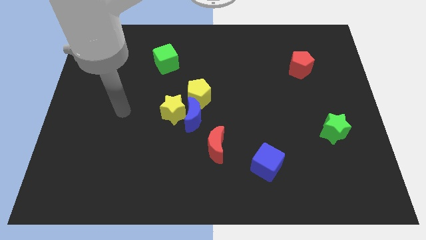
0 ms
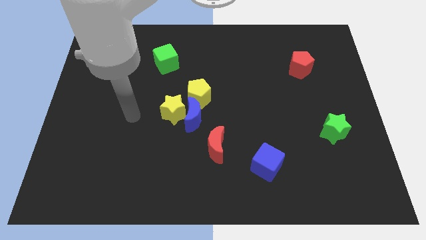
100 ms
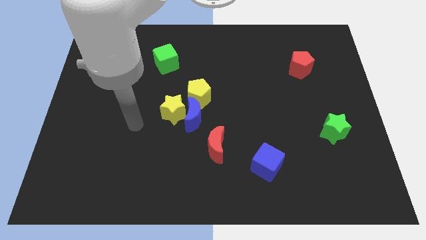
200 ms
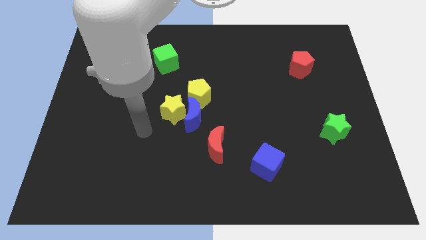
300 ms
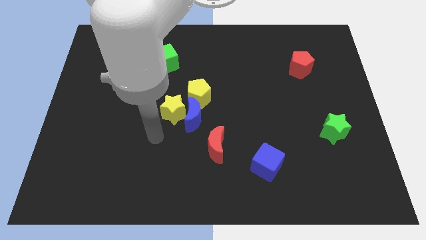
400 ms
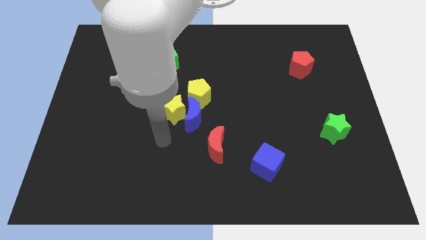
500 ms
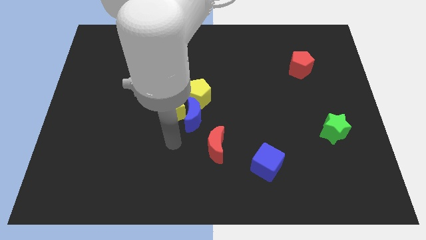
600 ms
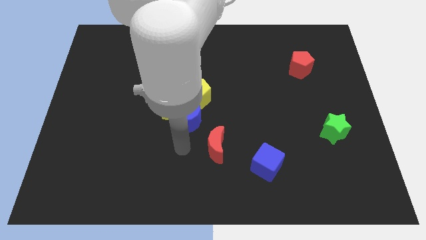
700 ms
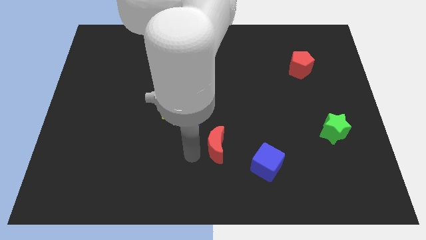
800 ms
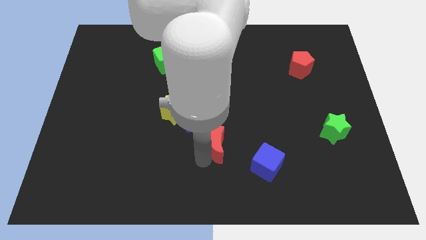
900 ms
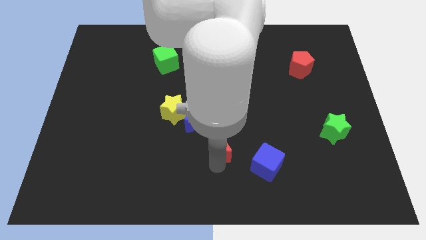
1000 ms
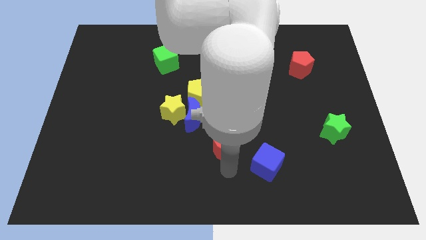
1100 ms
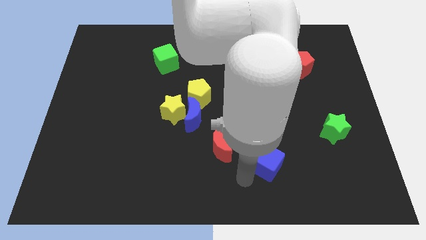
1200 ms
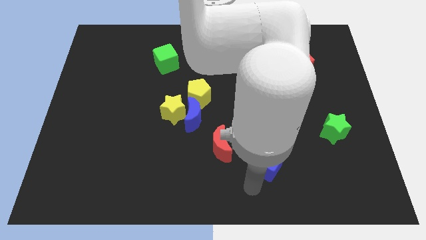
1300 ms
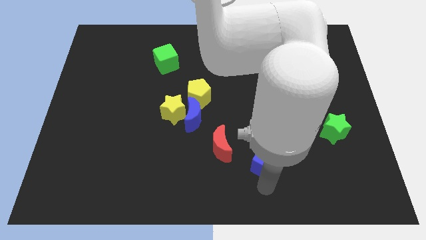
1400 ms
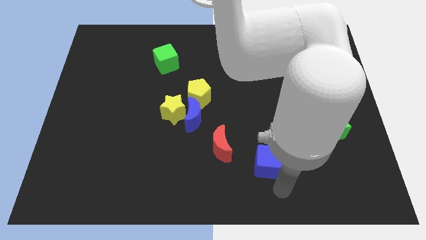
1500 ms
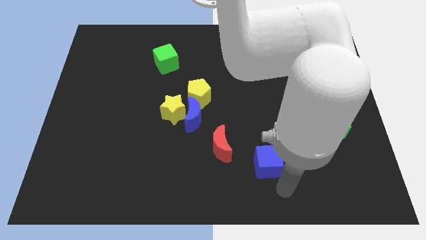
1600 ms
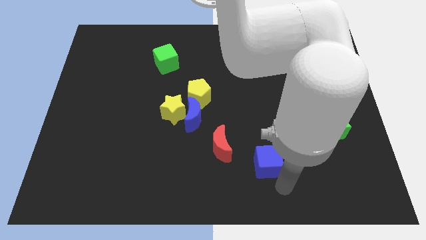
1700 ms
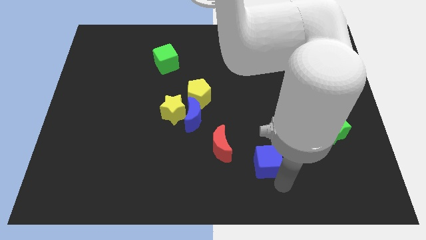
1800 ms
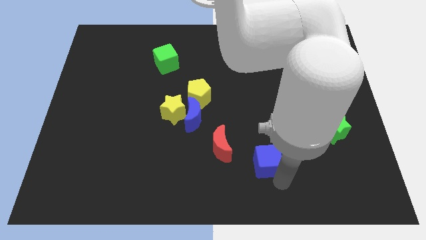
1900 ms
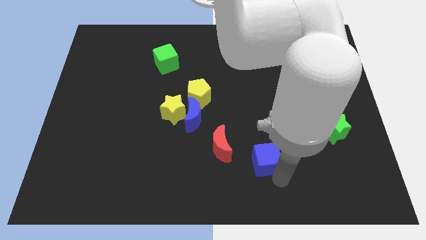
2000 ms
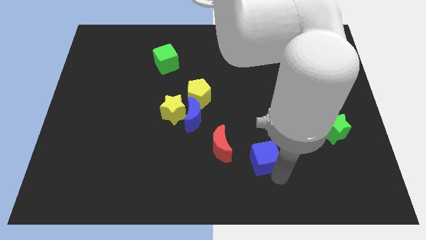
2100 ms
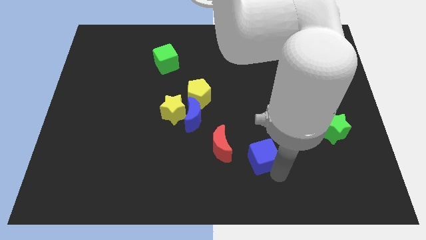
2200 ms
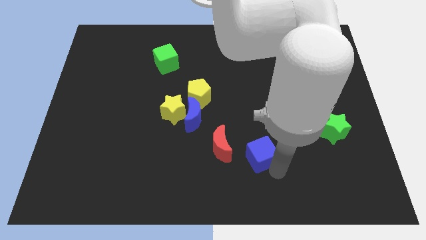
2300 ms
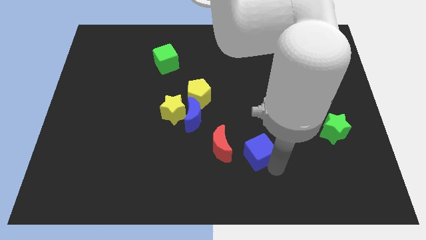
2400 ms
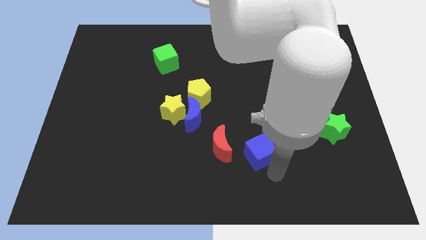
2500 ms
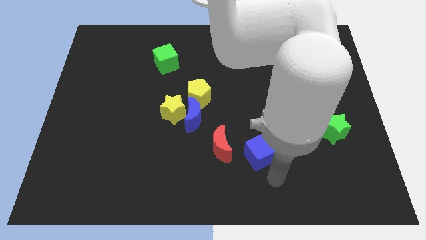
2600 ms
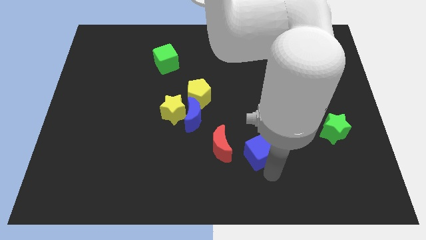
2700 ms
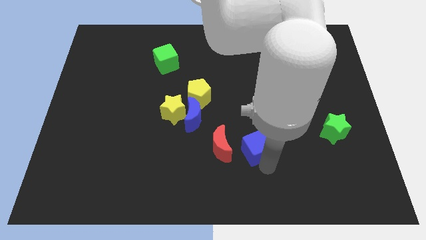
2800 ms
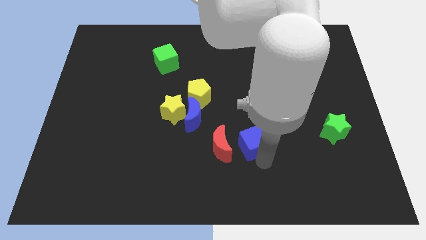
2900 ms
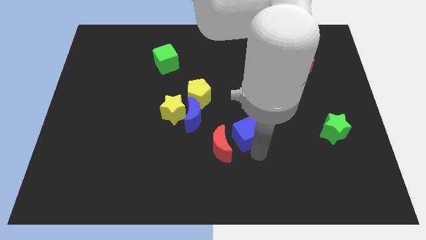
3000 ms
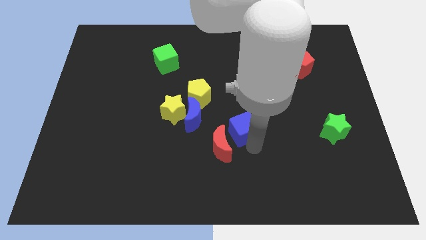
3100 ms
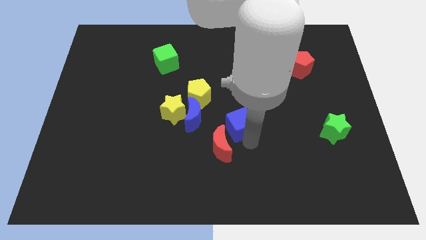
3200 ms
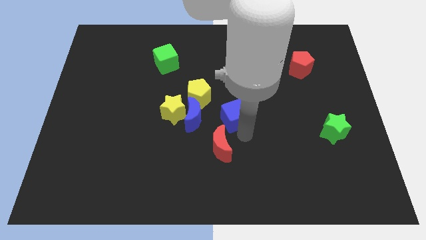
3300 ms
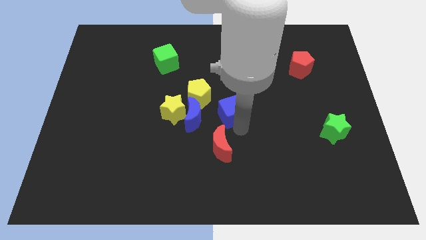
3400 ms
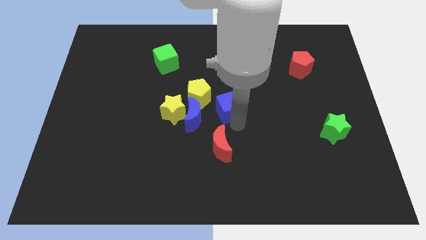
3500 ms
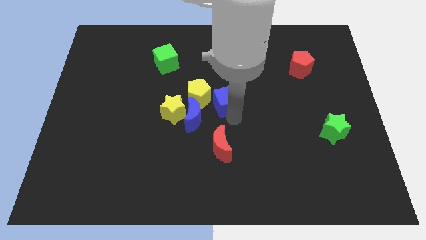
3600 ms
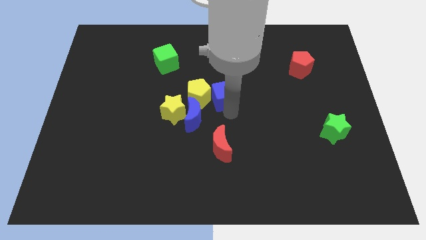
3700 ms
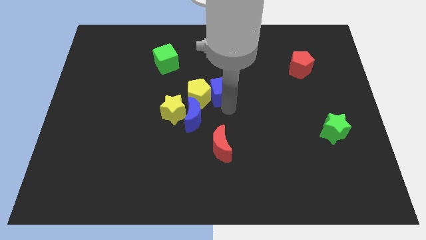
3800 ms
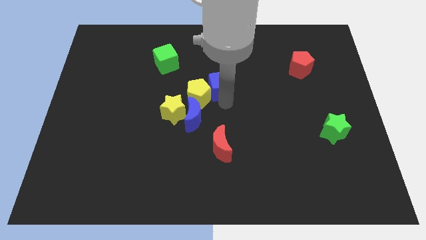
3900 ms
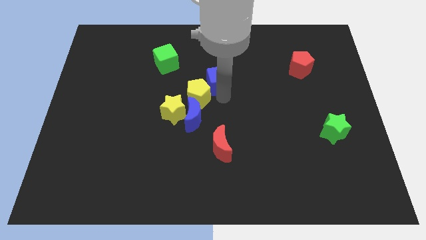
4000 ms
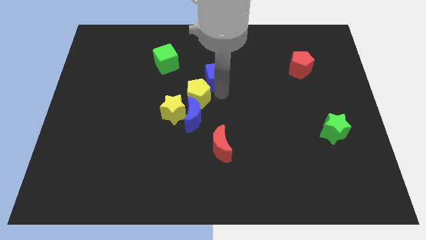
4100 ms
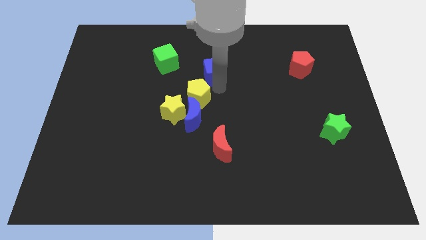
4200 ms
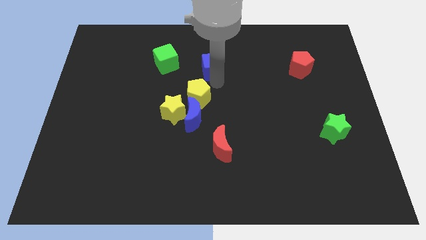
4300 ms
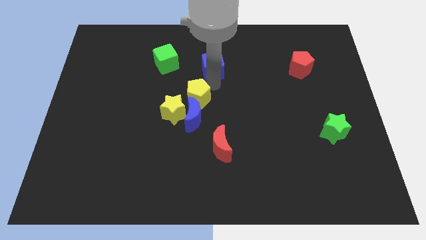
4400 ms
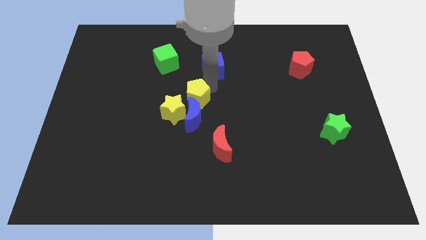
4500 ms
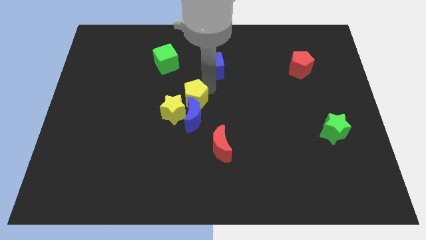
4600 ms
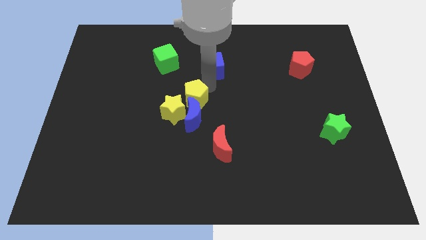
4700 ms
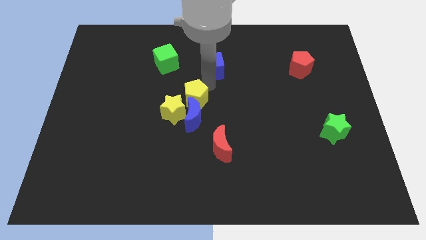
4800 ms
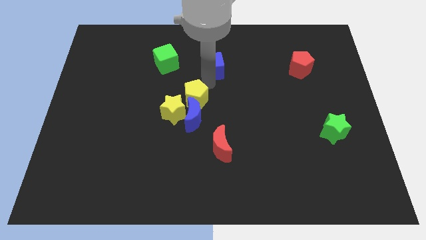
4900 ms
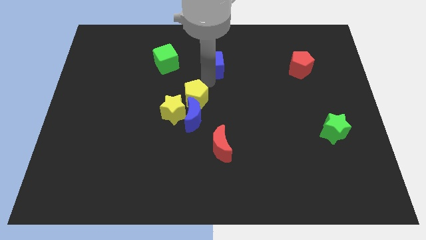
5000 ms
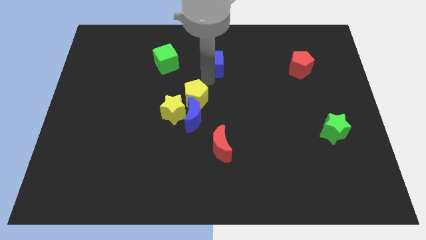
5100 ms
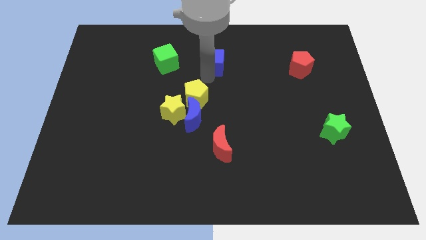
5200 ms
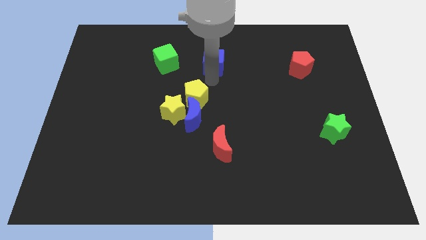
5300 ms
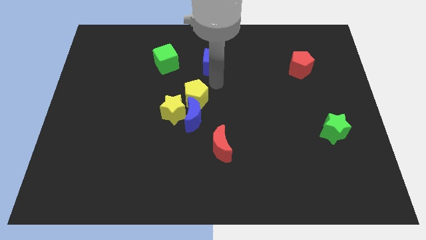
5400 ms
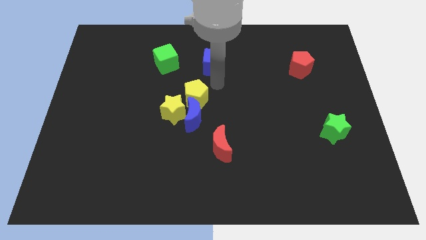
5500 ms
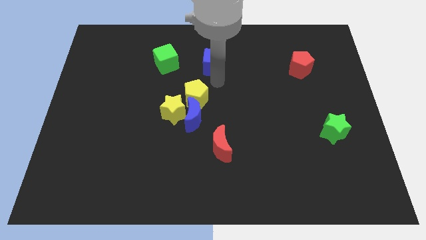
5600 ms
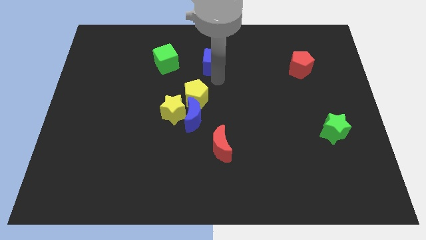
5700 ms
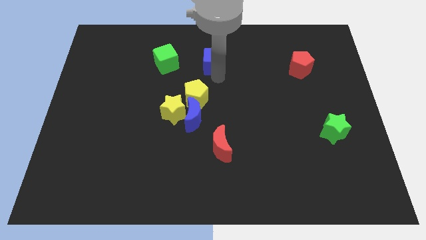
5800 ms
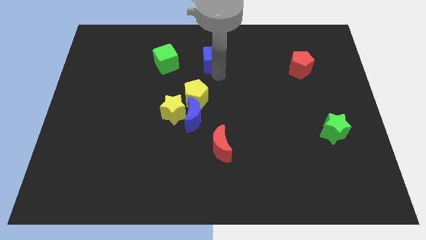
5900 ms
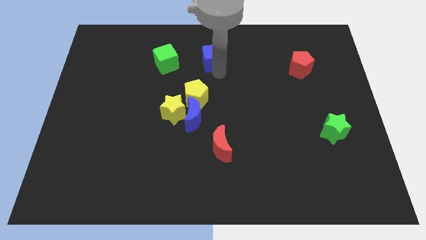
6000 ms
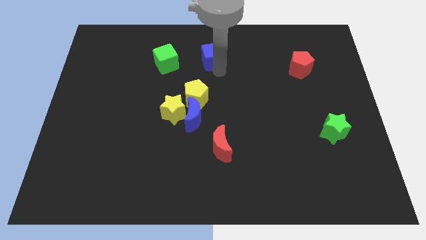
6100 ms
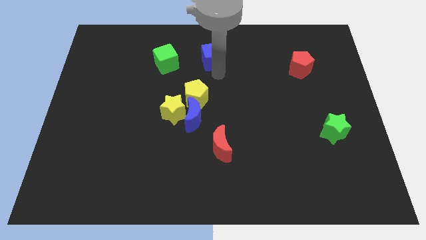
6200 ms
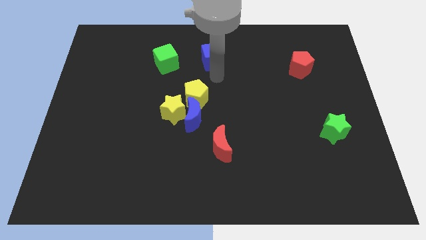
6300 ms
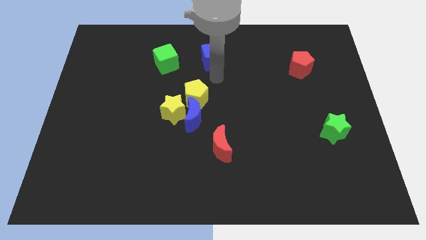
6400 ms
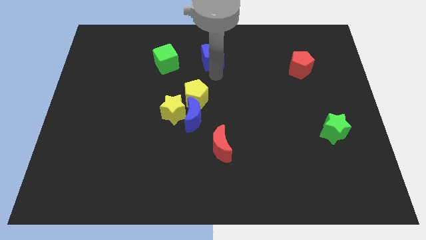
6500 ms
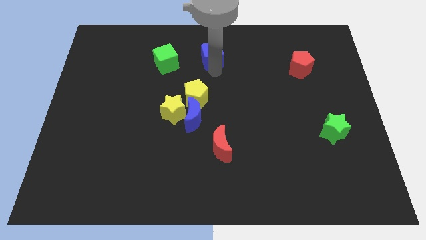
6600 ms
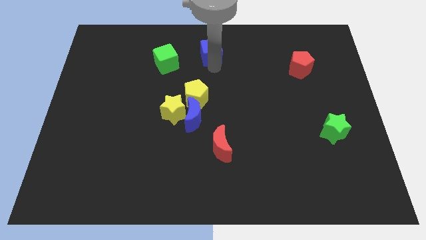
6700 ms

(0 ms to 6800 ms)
move the blue cube to the top side
